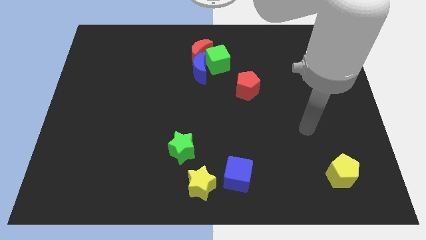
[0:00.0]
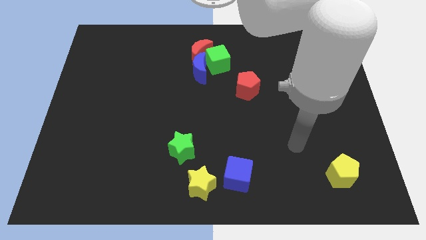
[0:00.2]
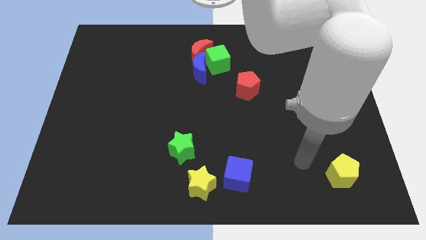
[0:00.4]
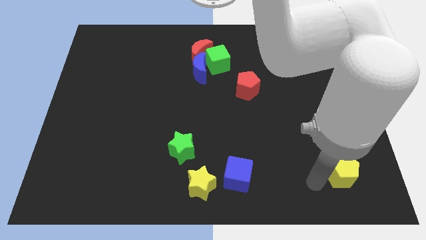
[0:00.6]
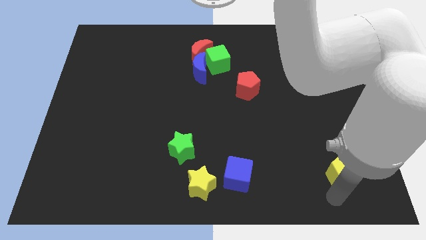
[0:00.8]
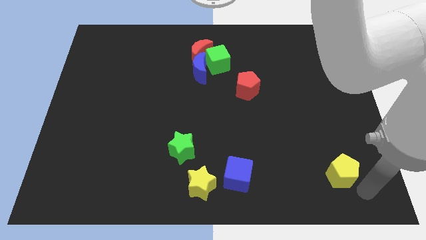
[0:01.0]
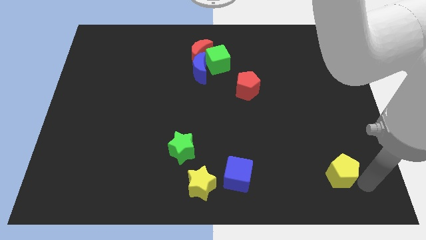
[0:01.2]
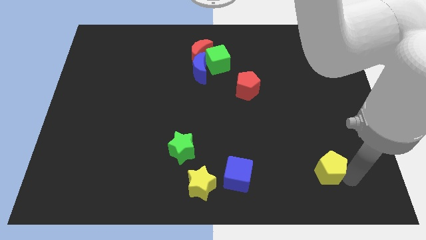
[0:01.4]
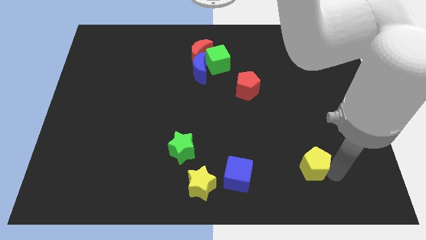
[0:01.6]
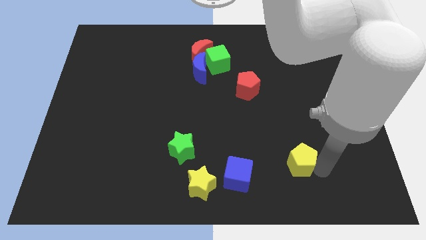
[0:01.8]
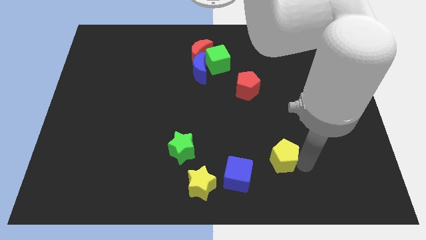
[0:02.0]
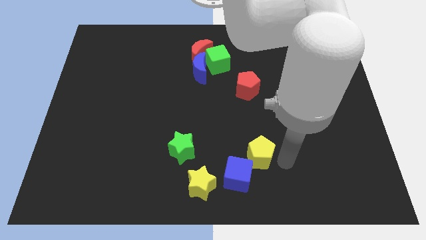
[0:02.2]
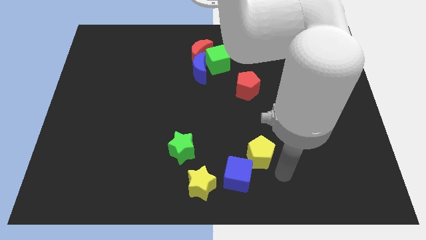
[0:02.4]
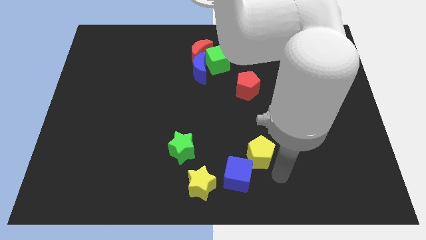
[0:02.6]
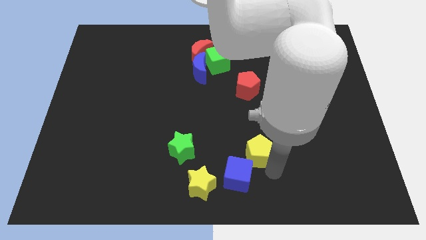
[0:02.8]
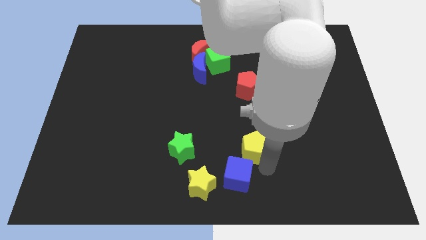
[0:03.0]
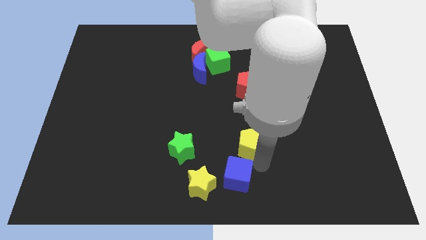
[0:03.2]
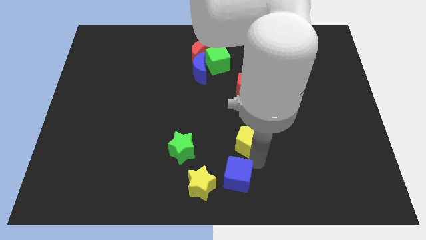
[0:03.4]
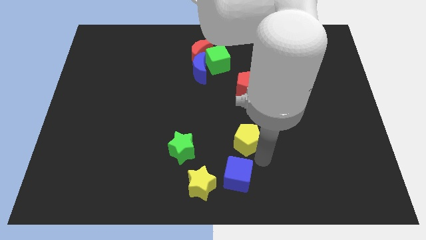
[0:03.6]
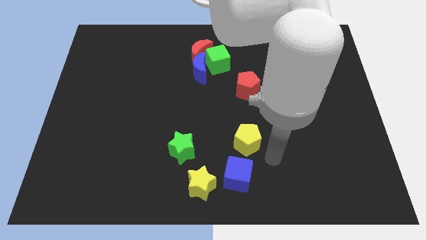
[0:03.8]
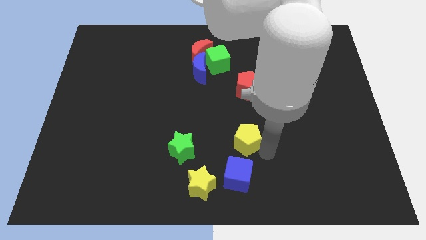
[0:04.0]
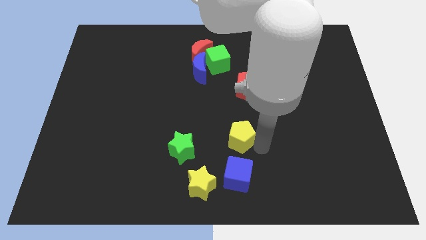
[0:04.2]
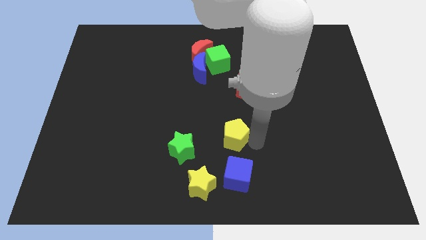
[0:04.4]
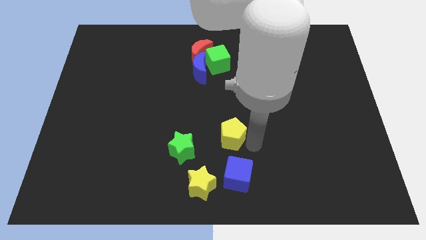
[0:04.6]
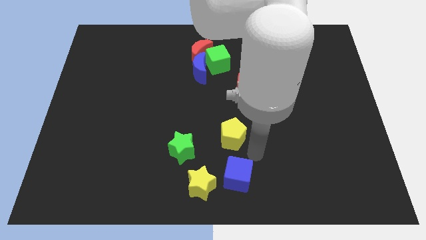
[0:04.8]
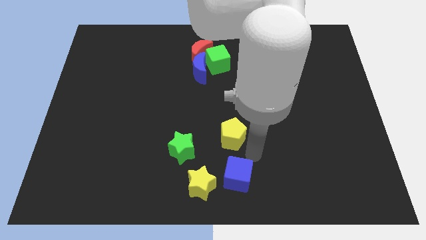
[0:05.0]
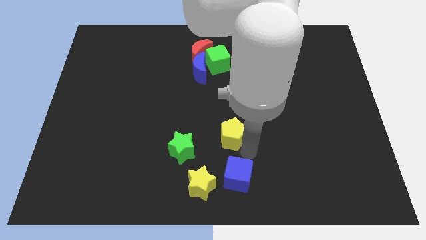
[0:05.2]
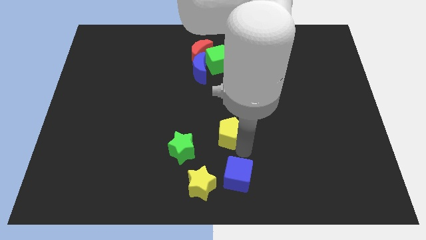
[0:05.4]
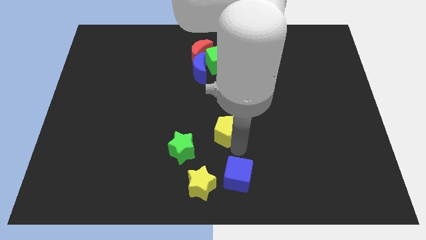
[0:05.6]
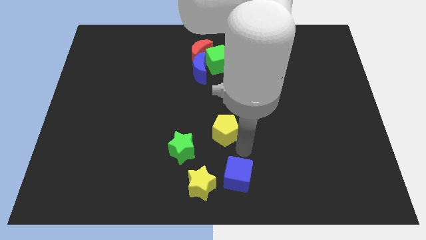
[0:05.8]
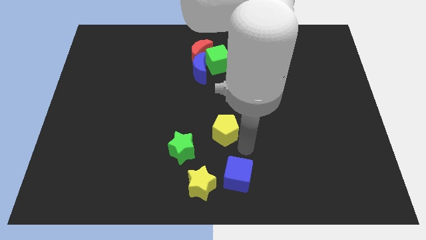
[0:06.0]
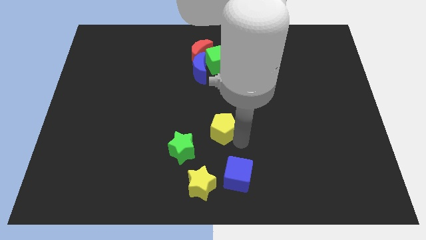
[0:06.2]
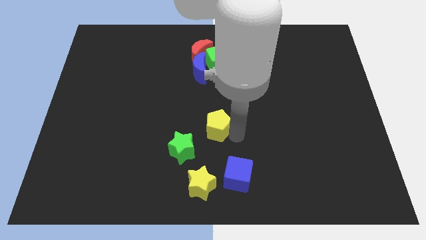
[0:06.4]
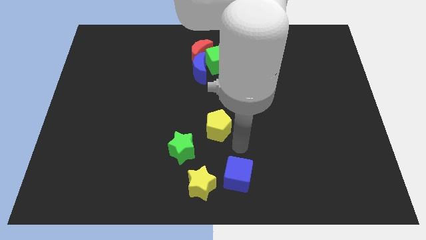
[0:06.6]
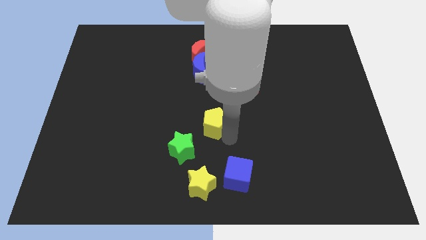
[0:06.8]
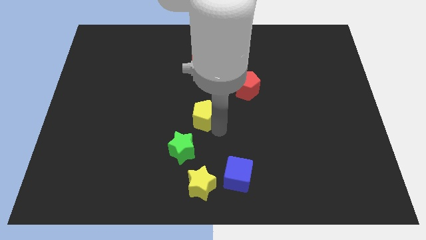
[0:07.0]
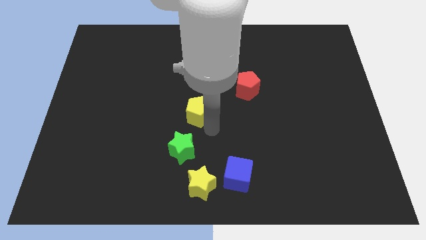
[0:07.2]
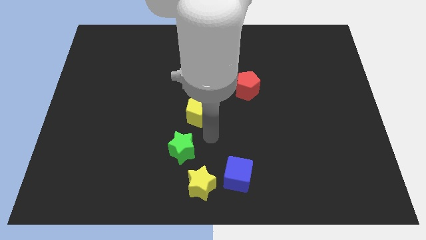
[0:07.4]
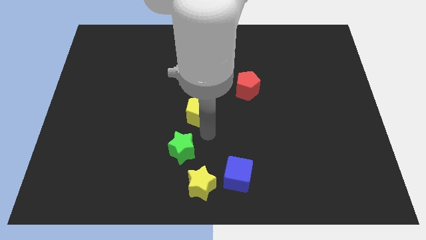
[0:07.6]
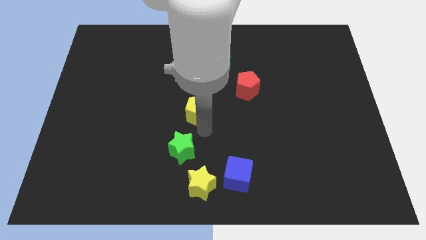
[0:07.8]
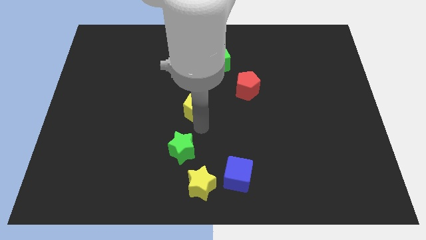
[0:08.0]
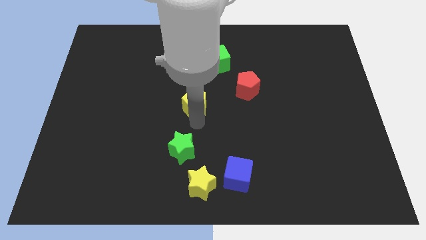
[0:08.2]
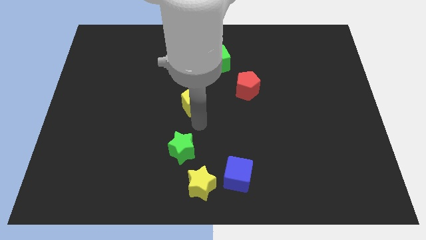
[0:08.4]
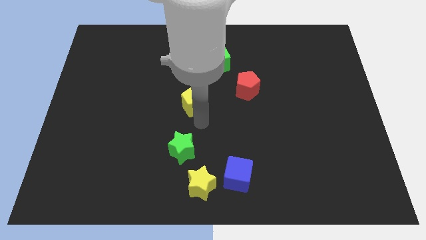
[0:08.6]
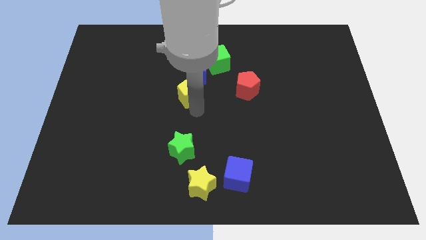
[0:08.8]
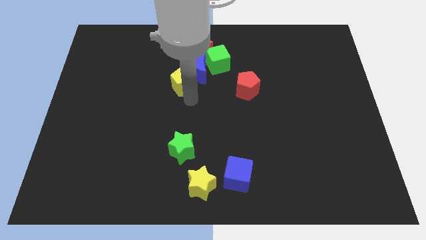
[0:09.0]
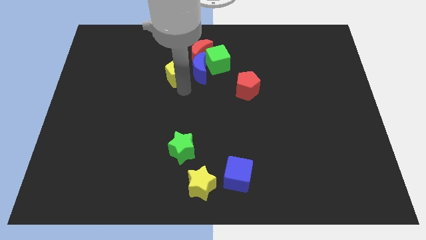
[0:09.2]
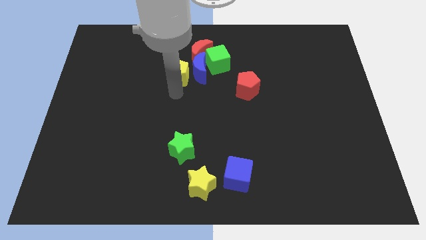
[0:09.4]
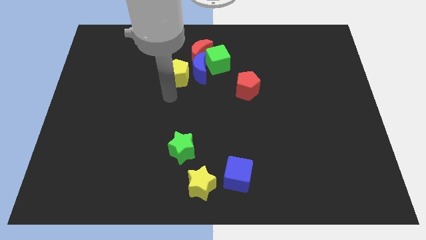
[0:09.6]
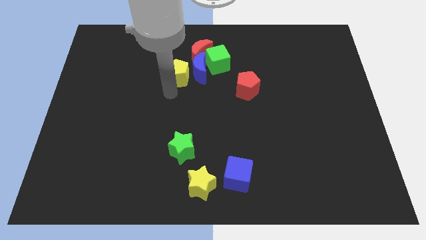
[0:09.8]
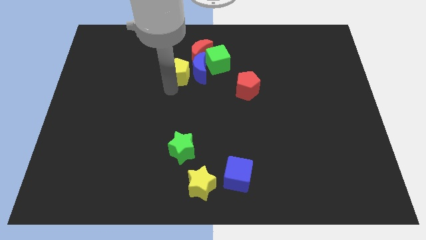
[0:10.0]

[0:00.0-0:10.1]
move the yellow pentagon to the top left side of the blue moon

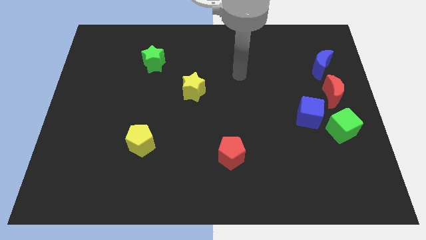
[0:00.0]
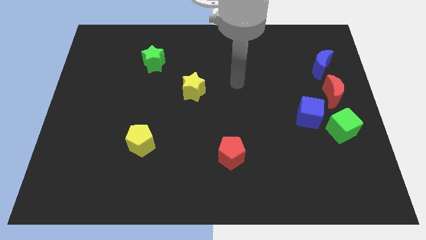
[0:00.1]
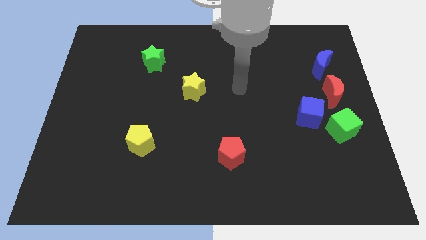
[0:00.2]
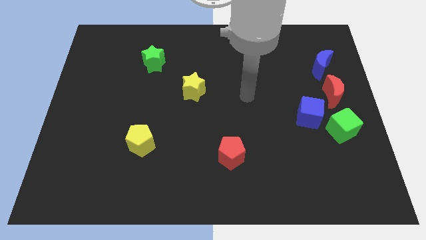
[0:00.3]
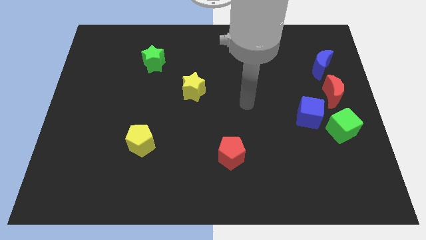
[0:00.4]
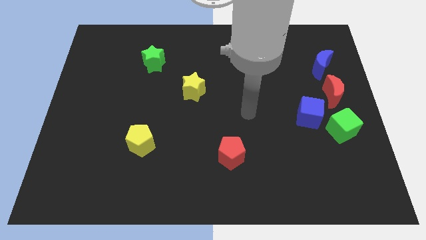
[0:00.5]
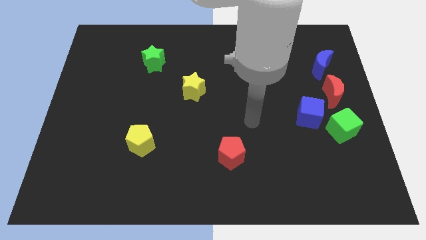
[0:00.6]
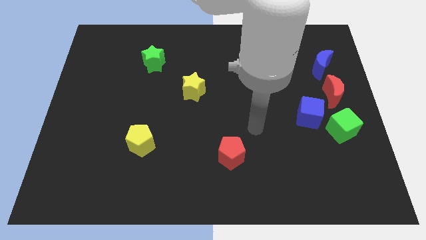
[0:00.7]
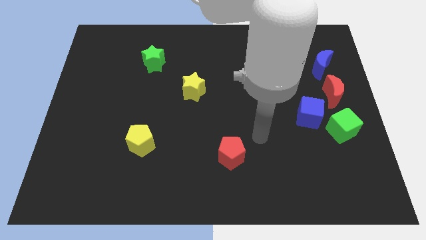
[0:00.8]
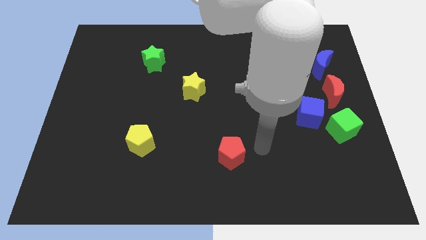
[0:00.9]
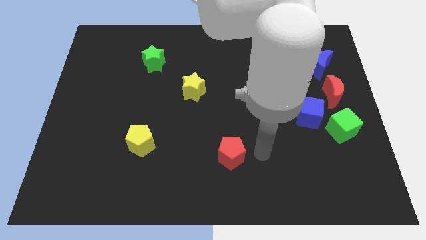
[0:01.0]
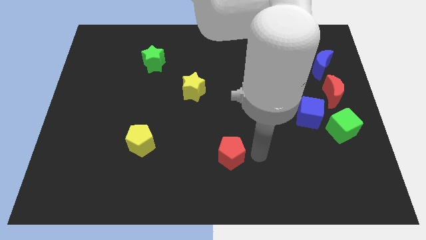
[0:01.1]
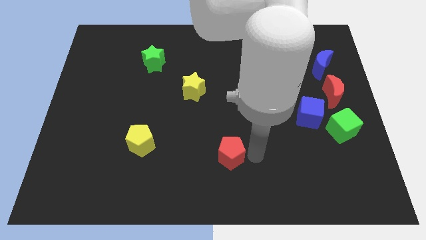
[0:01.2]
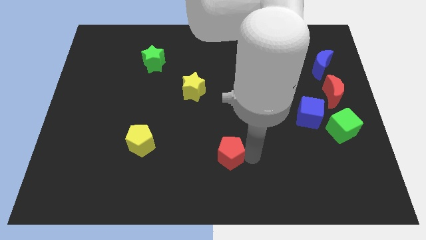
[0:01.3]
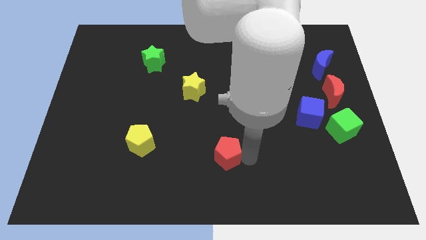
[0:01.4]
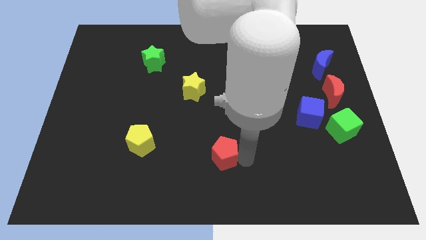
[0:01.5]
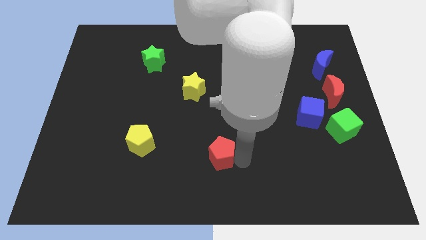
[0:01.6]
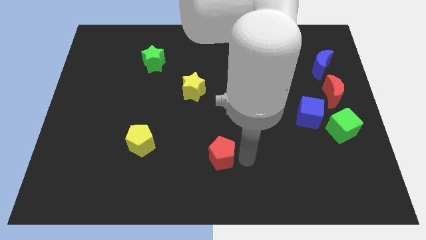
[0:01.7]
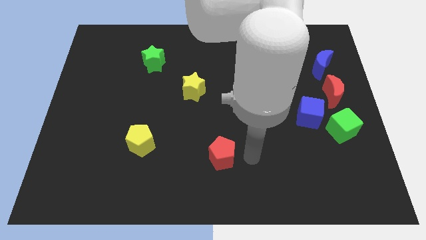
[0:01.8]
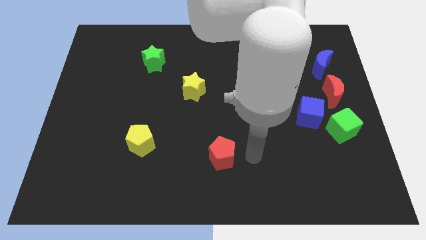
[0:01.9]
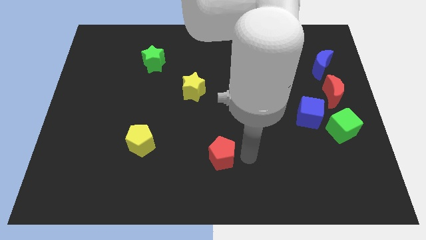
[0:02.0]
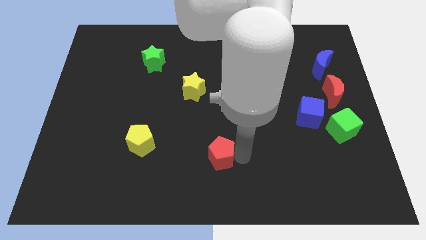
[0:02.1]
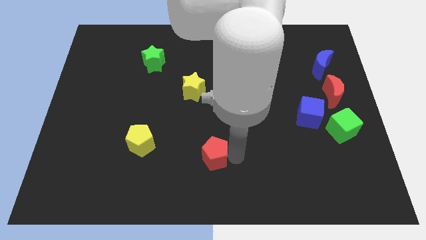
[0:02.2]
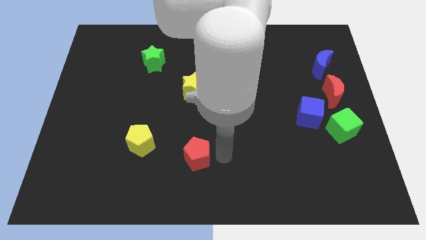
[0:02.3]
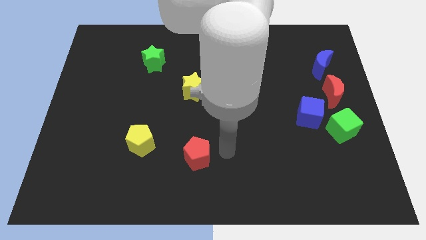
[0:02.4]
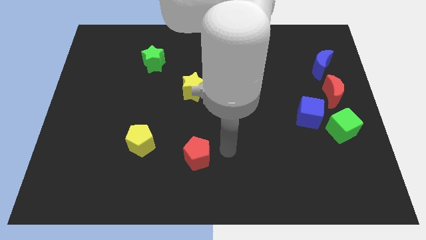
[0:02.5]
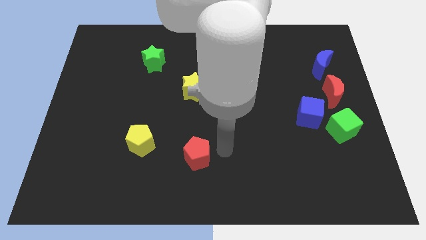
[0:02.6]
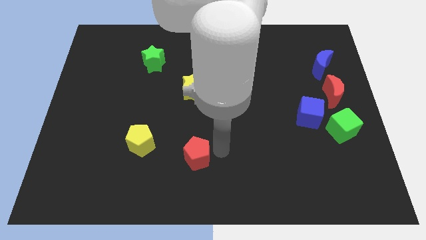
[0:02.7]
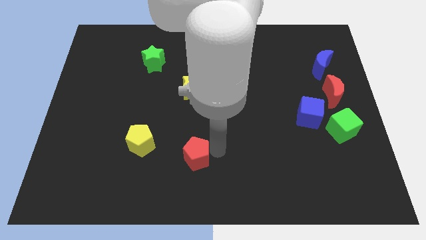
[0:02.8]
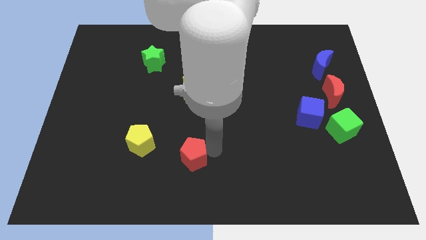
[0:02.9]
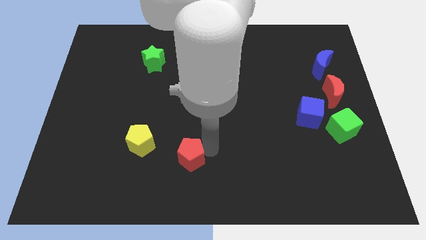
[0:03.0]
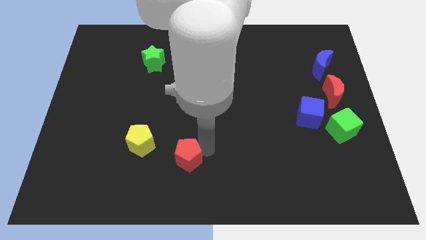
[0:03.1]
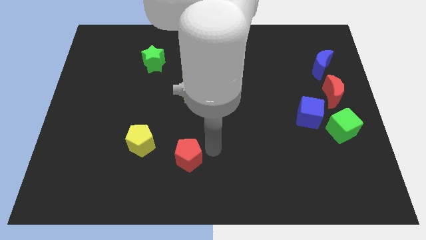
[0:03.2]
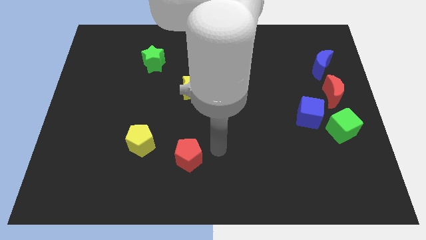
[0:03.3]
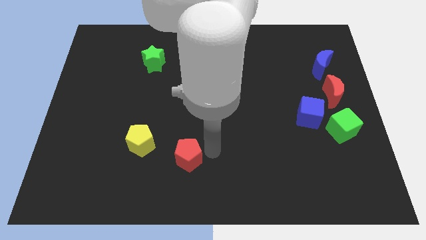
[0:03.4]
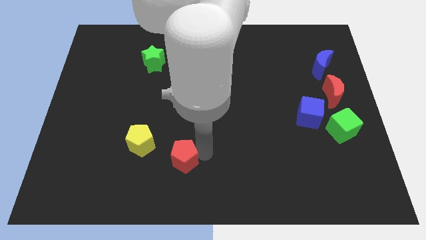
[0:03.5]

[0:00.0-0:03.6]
move the red pentagon to the bottom right side of the yellow pentagon
